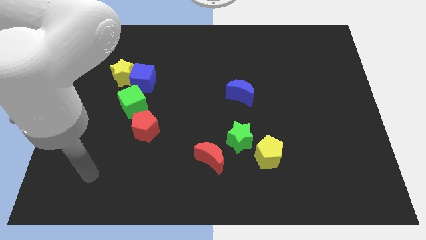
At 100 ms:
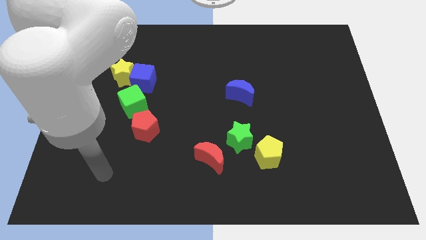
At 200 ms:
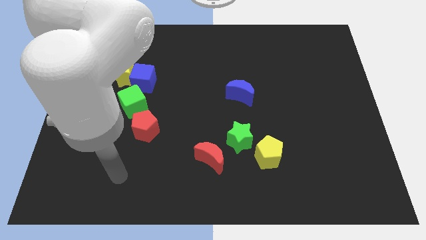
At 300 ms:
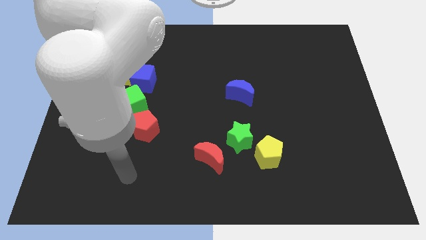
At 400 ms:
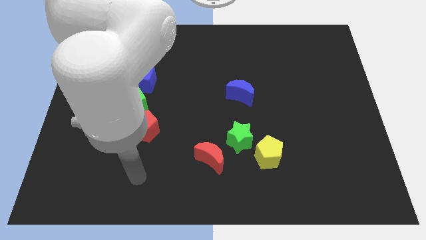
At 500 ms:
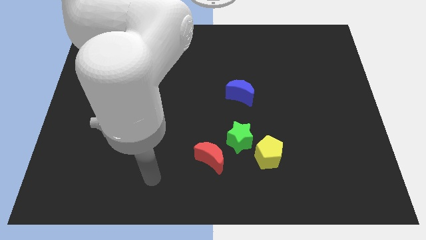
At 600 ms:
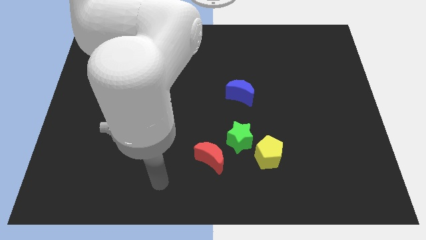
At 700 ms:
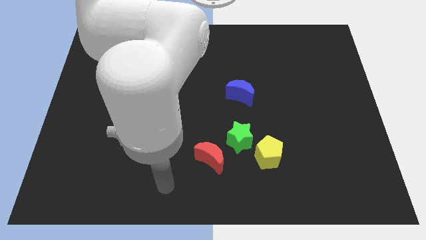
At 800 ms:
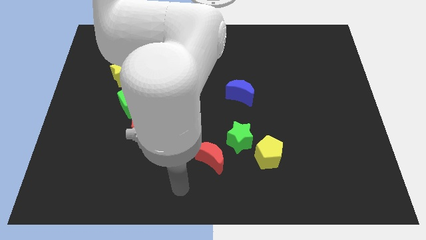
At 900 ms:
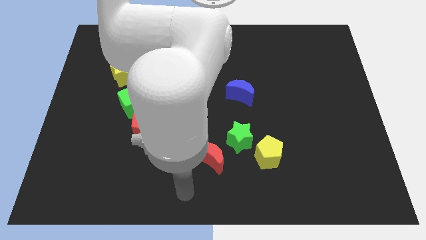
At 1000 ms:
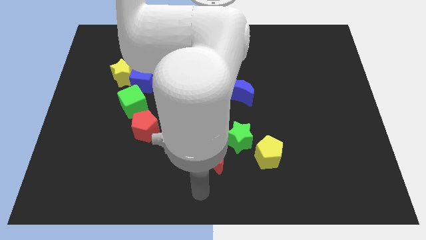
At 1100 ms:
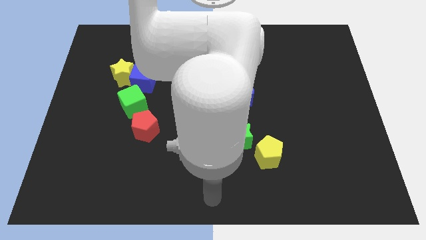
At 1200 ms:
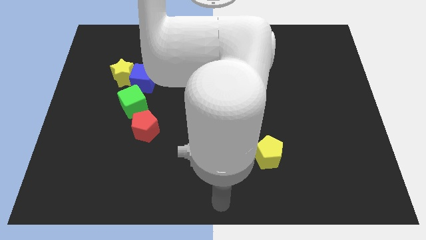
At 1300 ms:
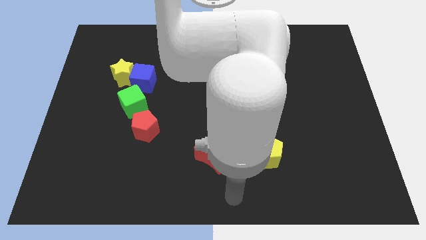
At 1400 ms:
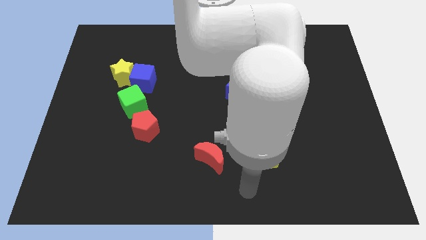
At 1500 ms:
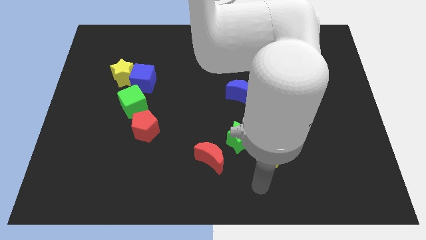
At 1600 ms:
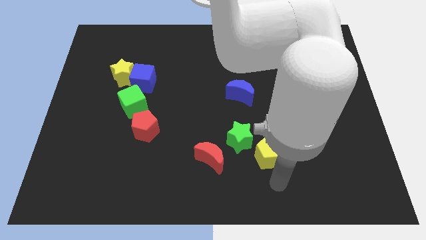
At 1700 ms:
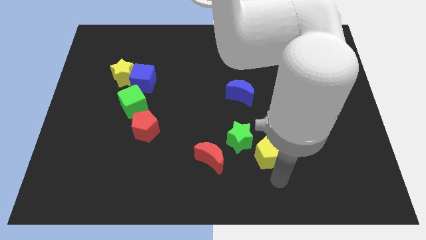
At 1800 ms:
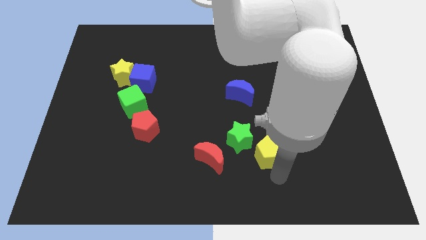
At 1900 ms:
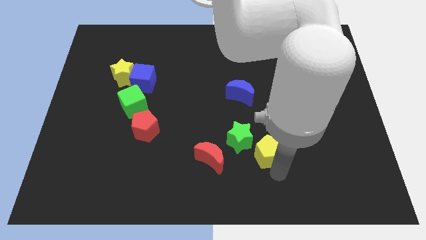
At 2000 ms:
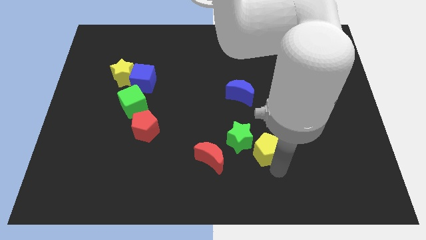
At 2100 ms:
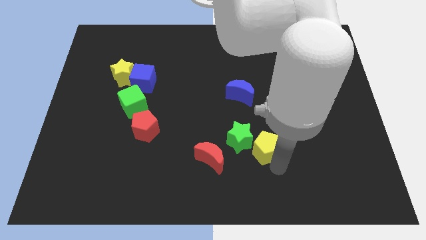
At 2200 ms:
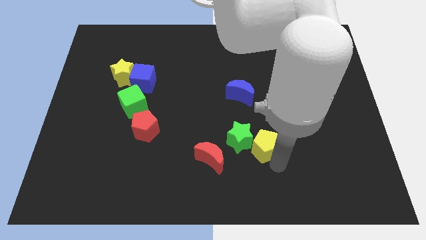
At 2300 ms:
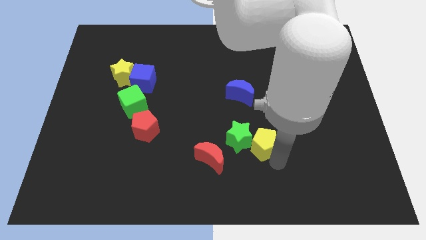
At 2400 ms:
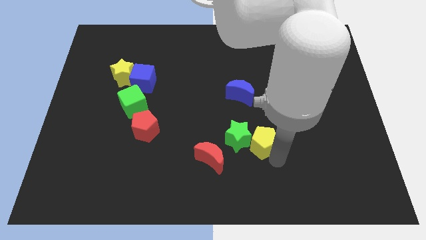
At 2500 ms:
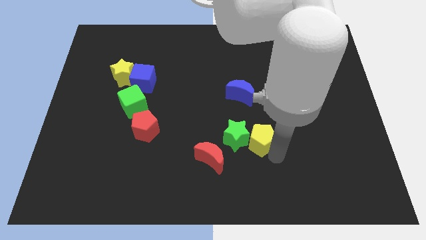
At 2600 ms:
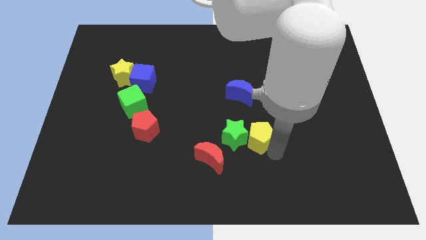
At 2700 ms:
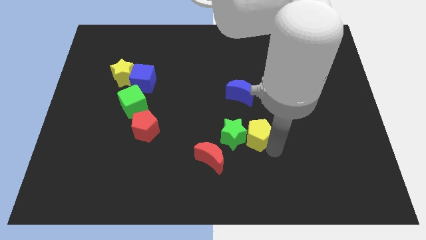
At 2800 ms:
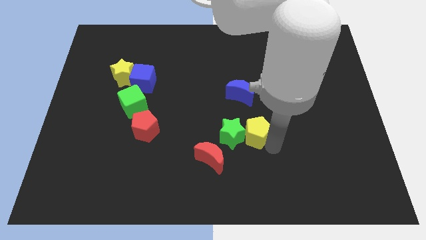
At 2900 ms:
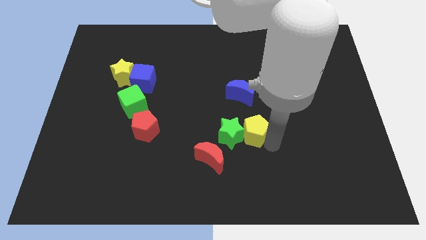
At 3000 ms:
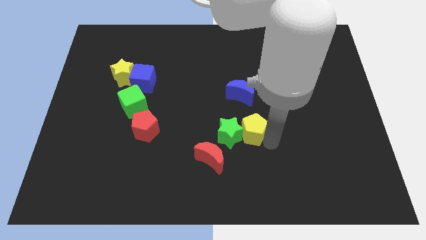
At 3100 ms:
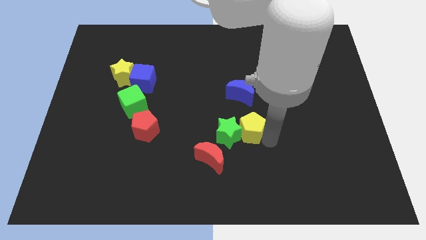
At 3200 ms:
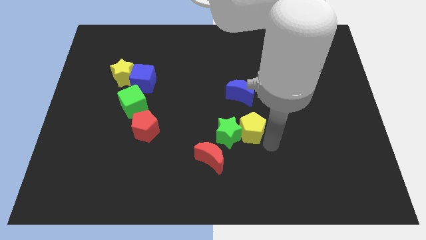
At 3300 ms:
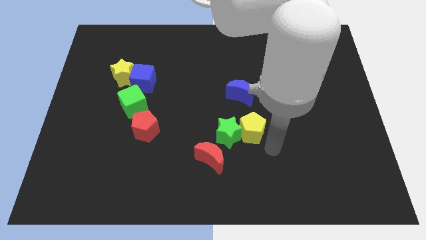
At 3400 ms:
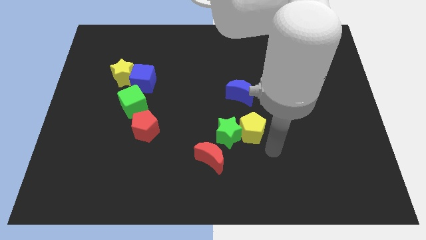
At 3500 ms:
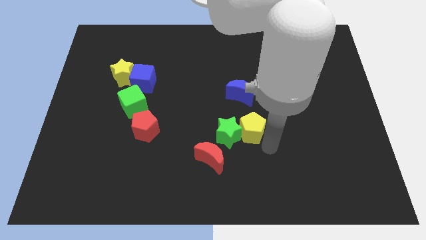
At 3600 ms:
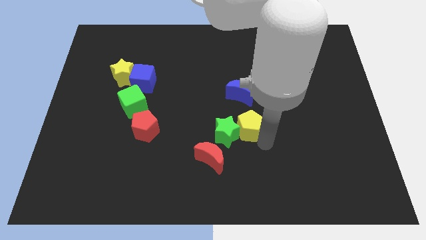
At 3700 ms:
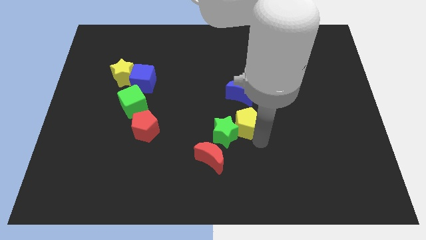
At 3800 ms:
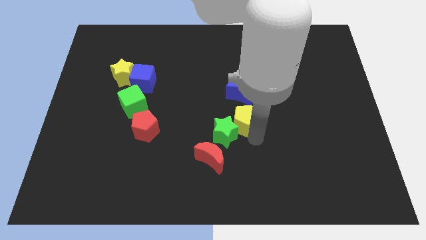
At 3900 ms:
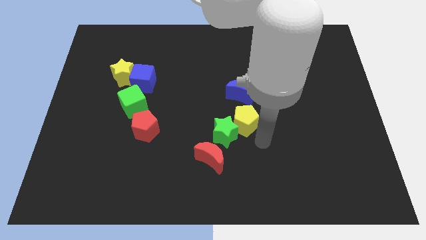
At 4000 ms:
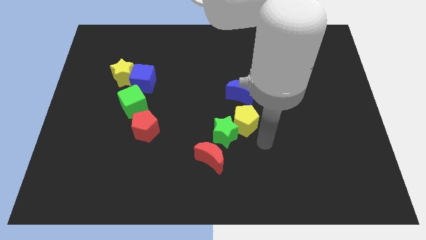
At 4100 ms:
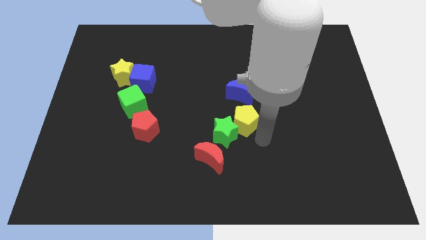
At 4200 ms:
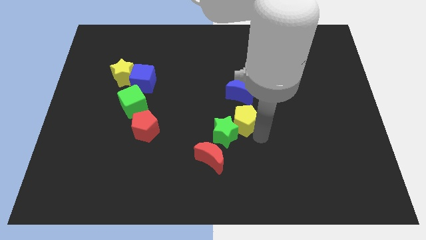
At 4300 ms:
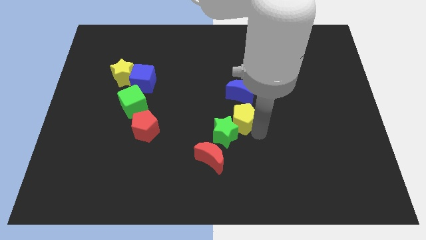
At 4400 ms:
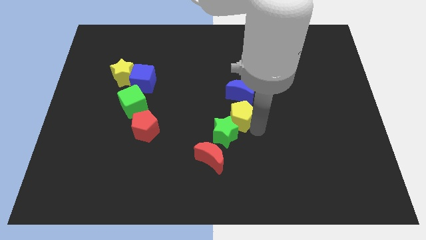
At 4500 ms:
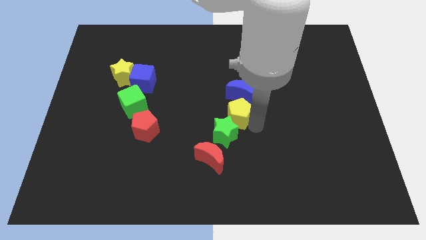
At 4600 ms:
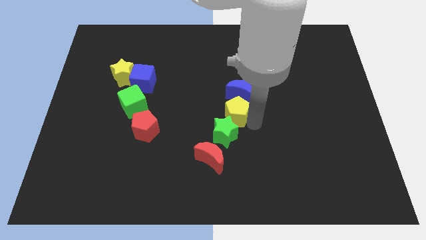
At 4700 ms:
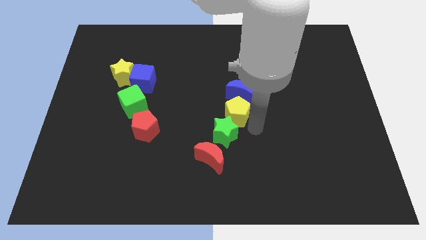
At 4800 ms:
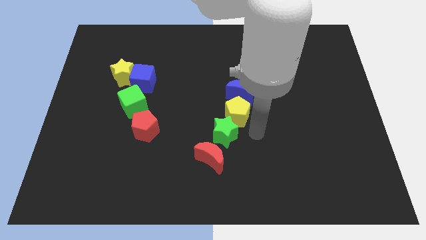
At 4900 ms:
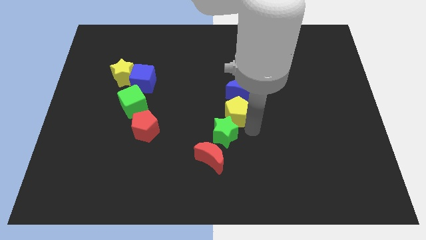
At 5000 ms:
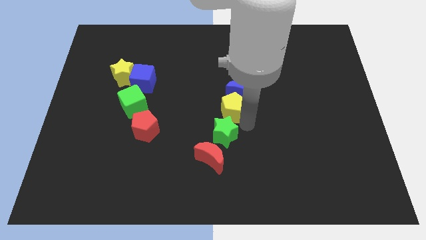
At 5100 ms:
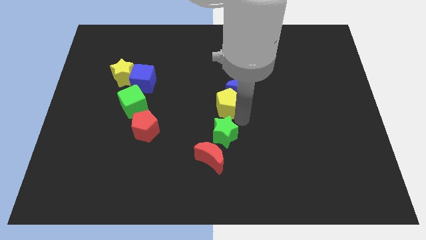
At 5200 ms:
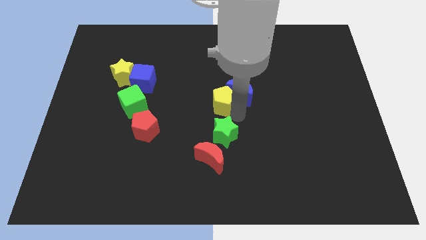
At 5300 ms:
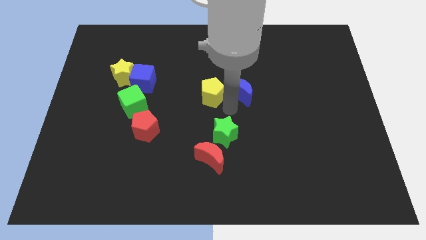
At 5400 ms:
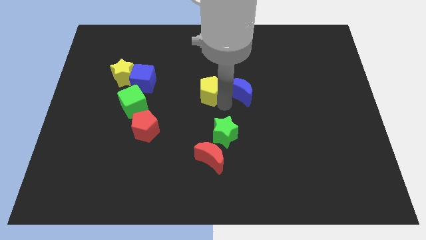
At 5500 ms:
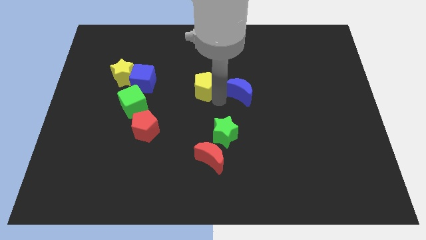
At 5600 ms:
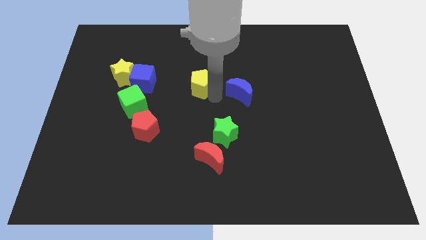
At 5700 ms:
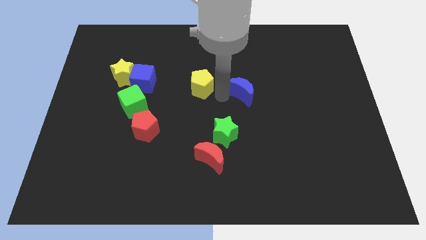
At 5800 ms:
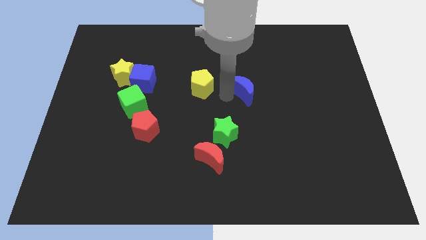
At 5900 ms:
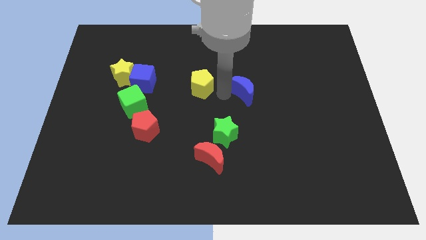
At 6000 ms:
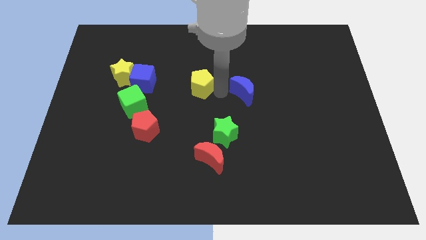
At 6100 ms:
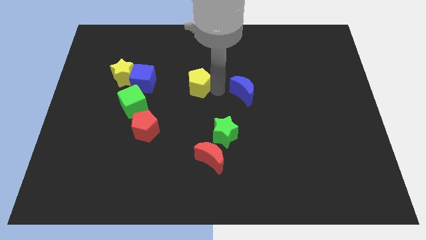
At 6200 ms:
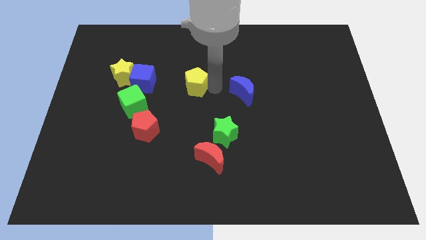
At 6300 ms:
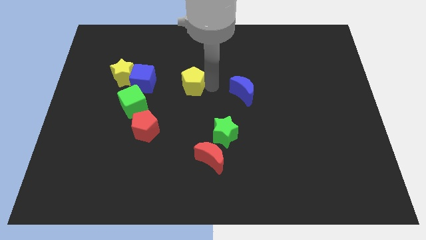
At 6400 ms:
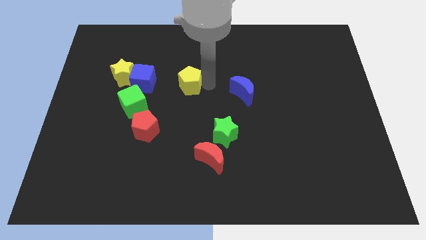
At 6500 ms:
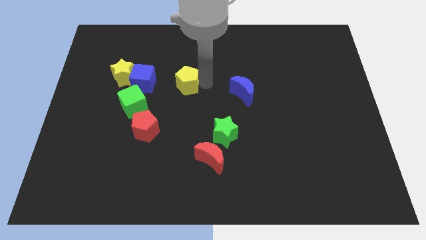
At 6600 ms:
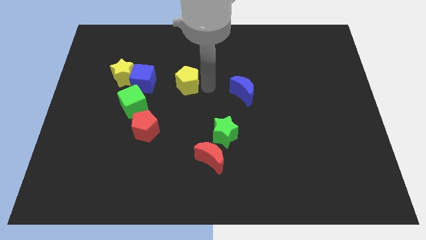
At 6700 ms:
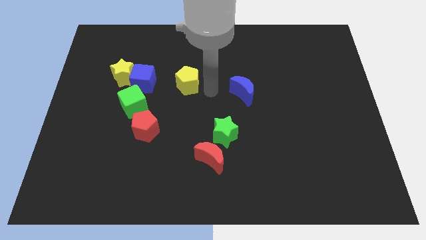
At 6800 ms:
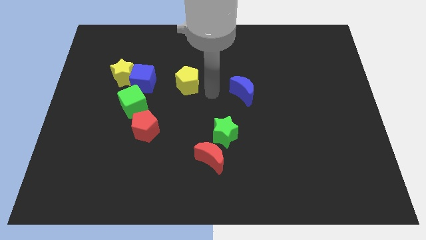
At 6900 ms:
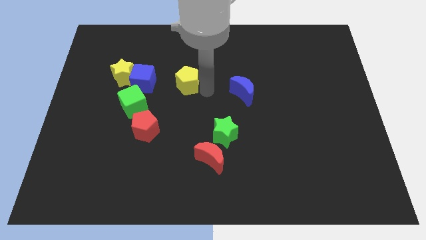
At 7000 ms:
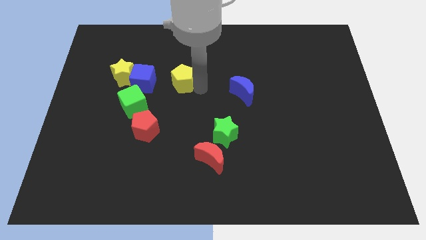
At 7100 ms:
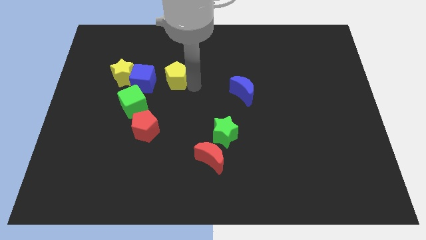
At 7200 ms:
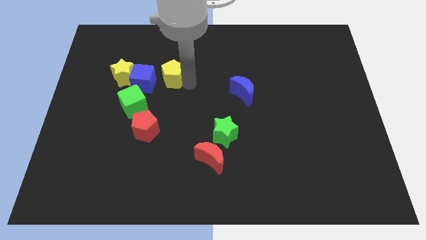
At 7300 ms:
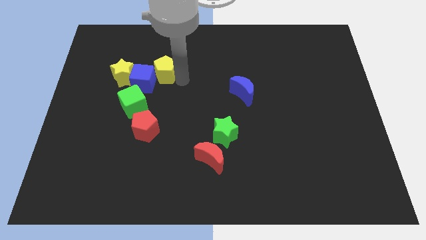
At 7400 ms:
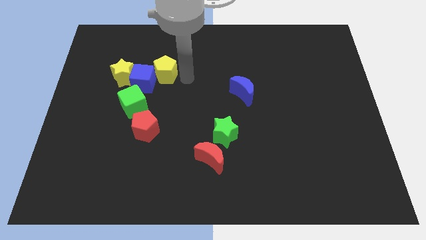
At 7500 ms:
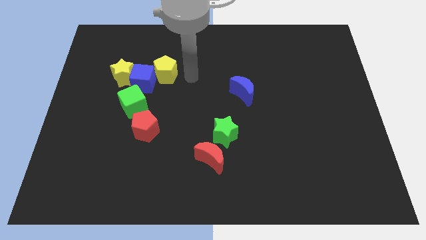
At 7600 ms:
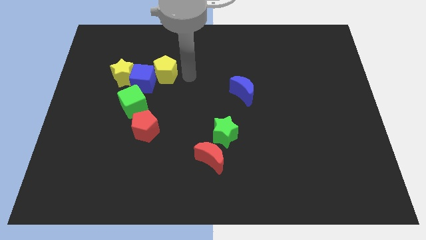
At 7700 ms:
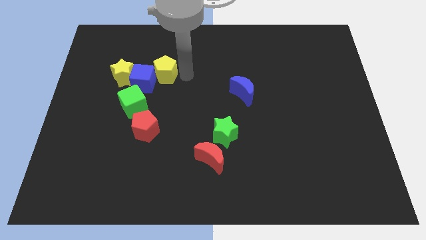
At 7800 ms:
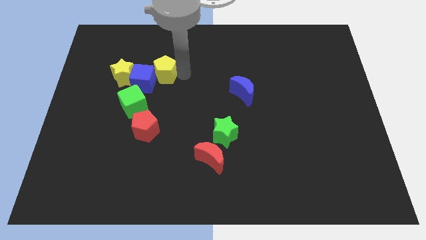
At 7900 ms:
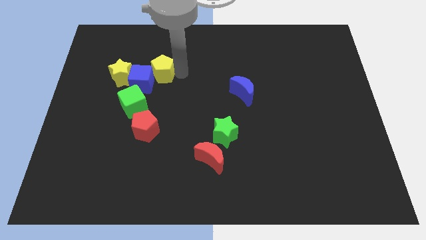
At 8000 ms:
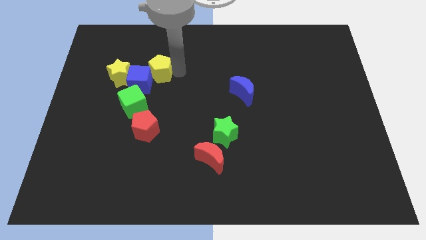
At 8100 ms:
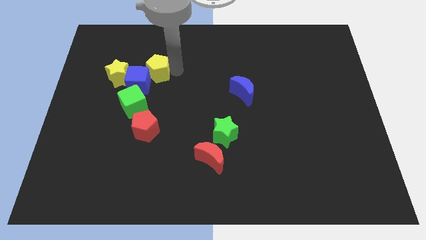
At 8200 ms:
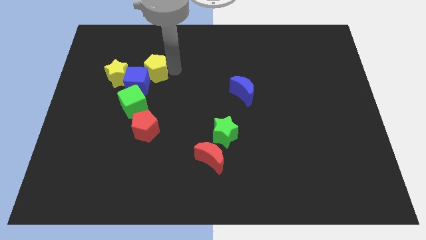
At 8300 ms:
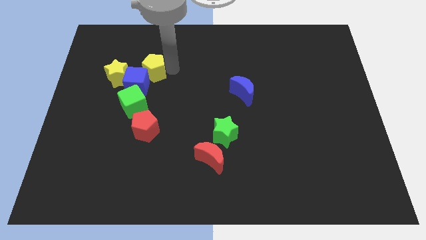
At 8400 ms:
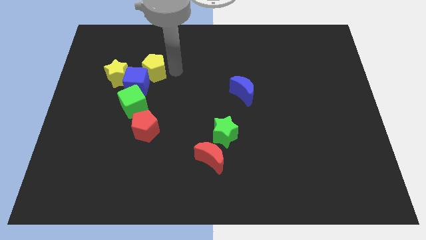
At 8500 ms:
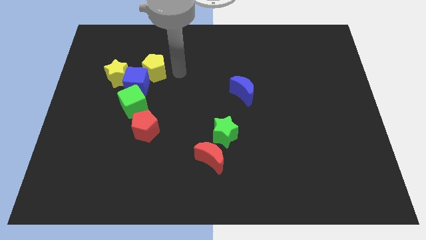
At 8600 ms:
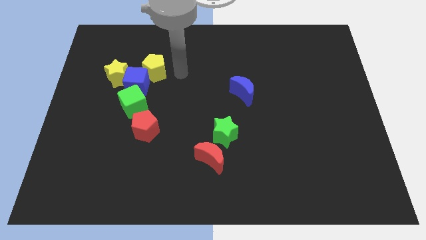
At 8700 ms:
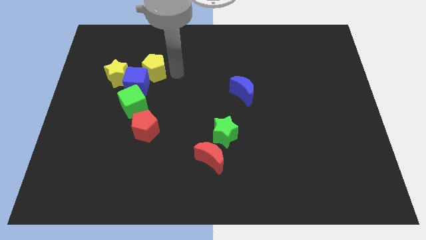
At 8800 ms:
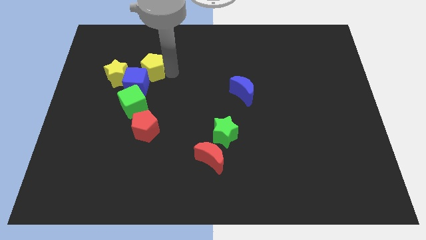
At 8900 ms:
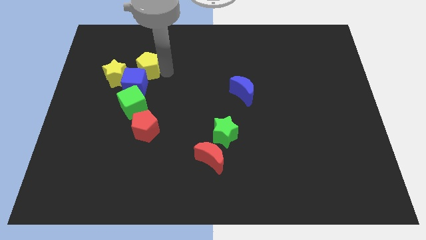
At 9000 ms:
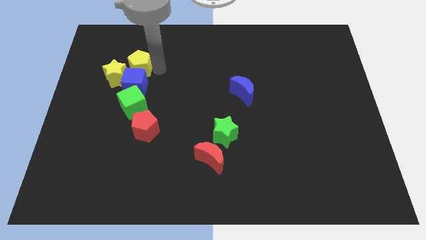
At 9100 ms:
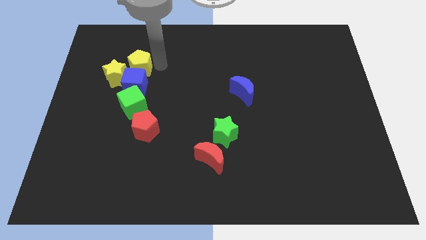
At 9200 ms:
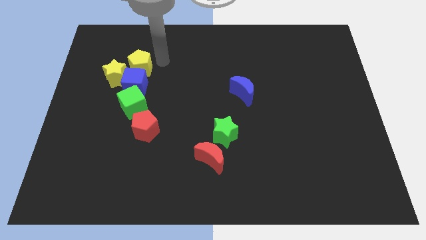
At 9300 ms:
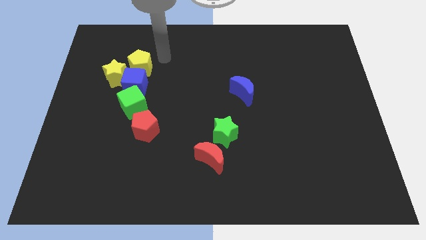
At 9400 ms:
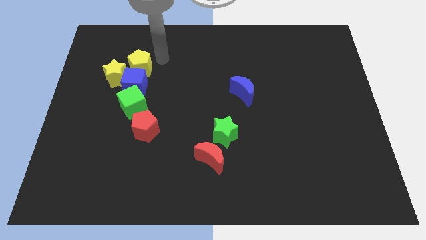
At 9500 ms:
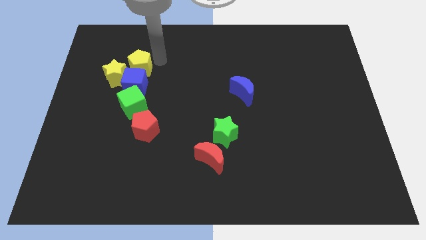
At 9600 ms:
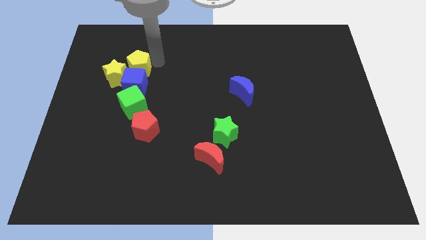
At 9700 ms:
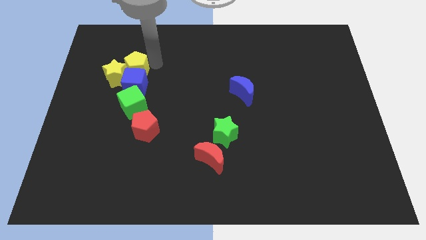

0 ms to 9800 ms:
move the yellow pentagon to the yellow star
